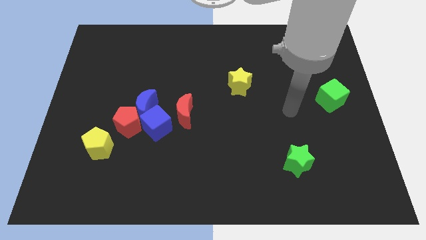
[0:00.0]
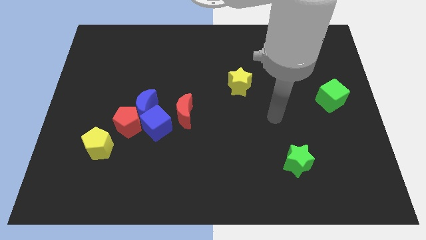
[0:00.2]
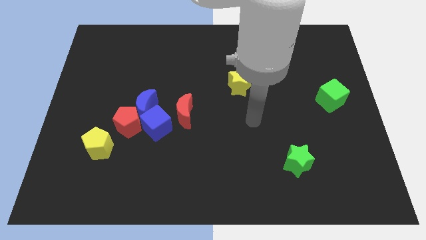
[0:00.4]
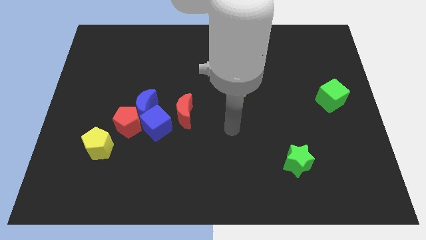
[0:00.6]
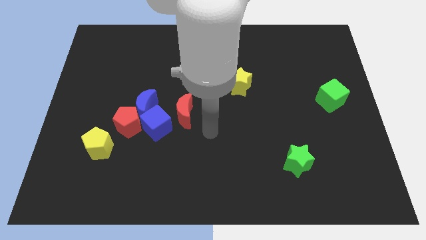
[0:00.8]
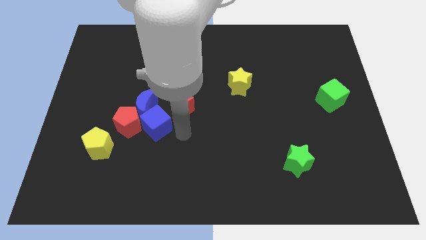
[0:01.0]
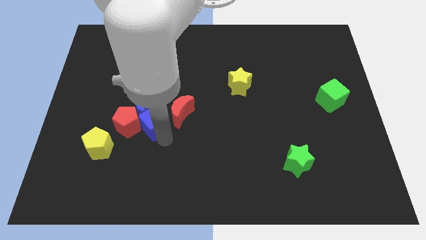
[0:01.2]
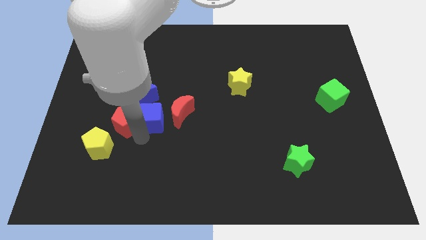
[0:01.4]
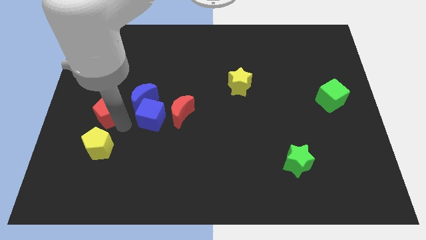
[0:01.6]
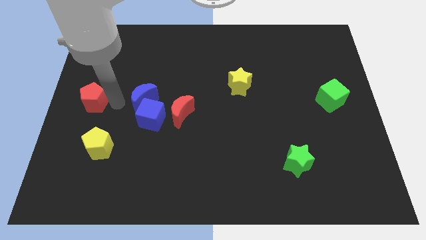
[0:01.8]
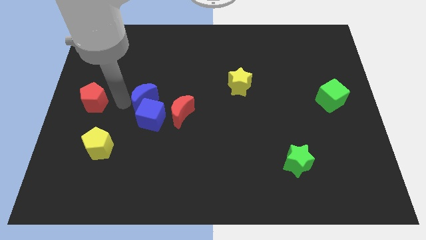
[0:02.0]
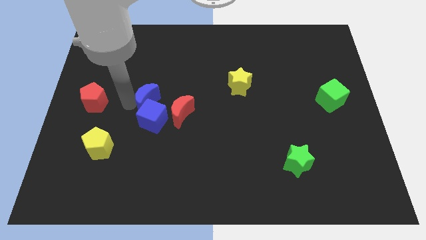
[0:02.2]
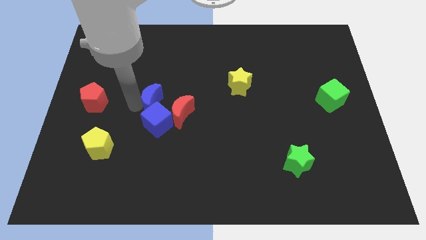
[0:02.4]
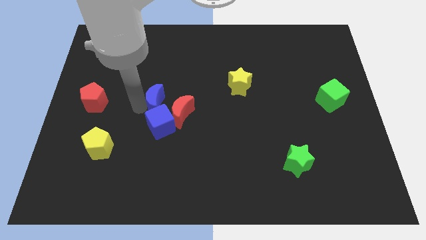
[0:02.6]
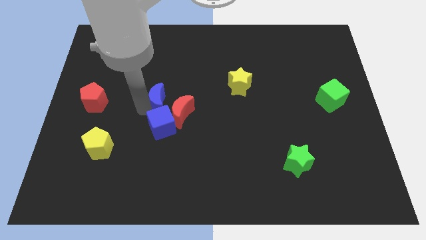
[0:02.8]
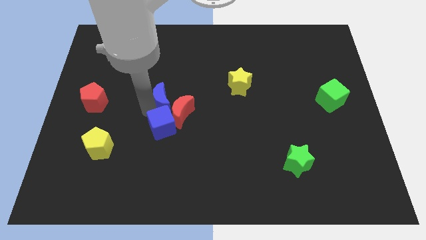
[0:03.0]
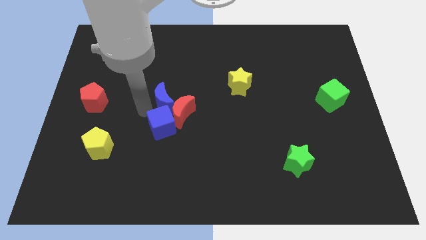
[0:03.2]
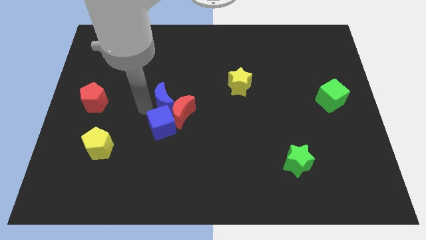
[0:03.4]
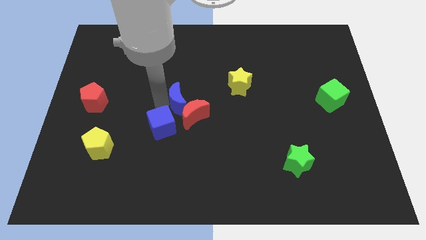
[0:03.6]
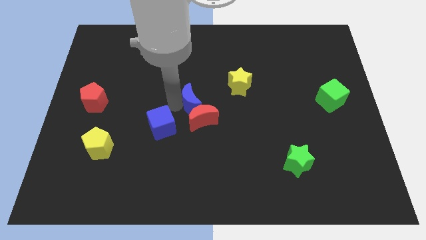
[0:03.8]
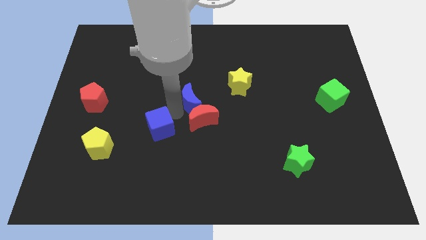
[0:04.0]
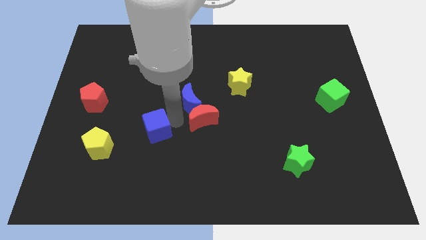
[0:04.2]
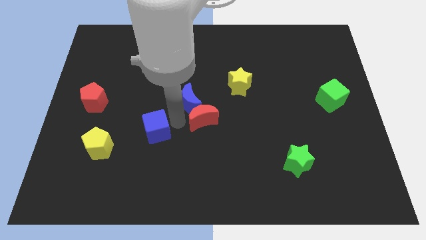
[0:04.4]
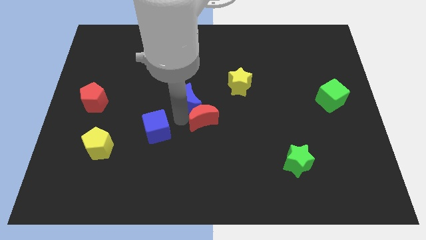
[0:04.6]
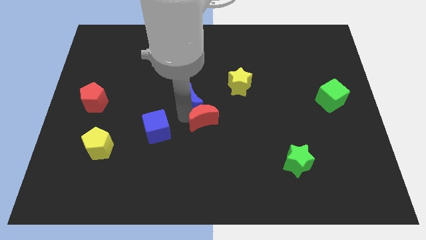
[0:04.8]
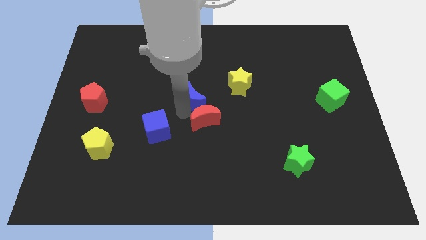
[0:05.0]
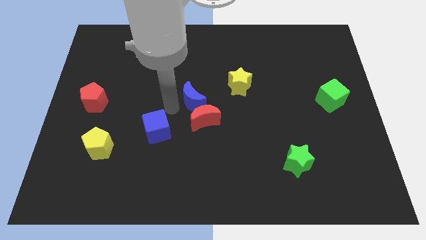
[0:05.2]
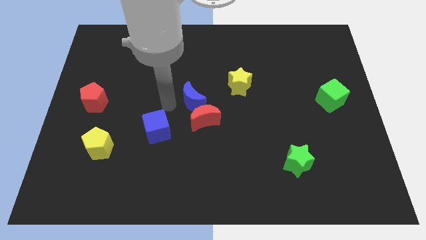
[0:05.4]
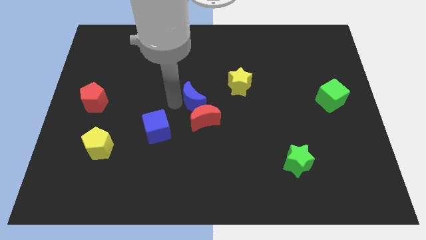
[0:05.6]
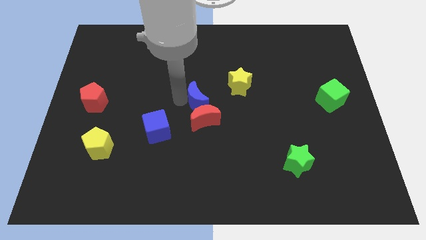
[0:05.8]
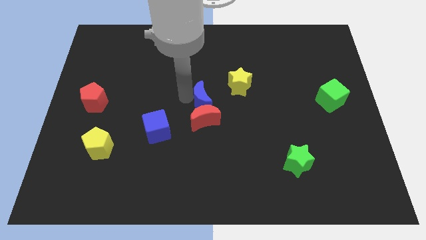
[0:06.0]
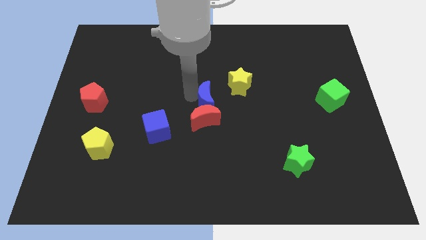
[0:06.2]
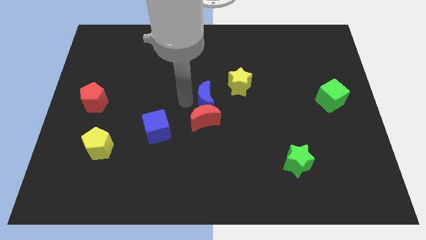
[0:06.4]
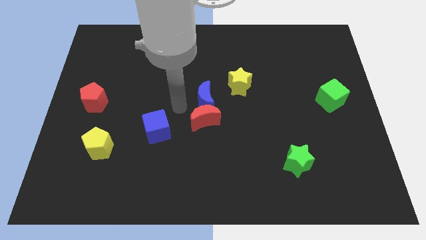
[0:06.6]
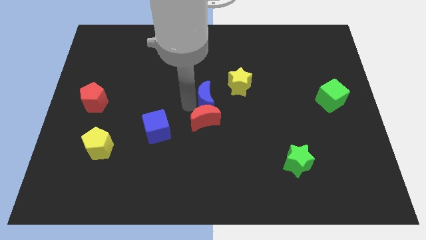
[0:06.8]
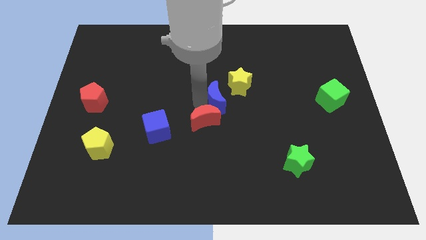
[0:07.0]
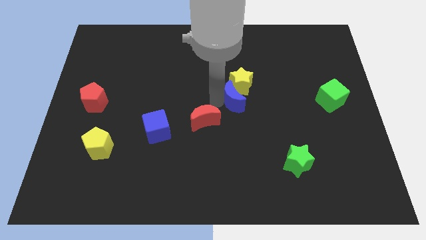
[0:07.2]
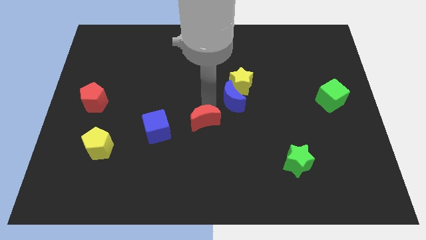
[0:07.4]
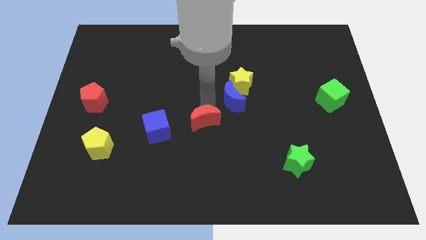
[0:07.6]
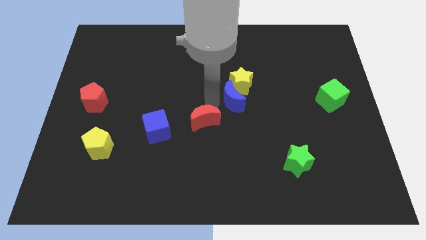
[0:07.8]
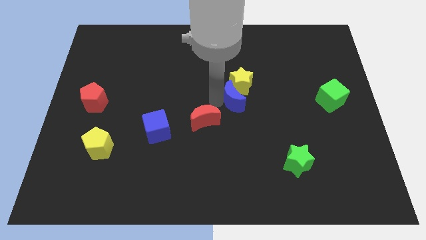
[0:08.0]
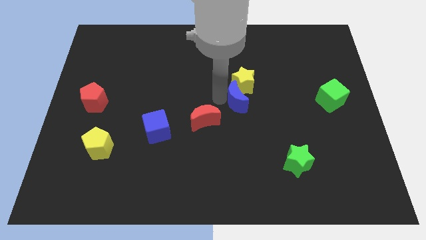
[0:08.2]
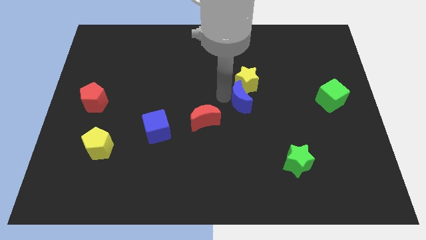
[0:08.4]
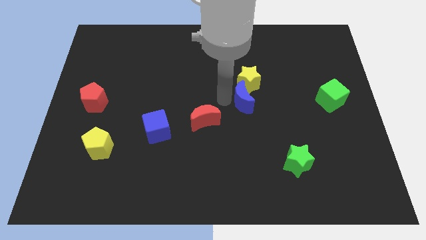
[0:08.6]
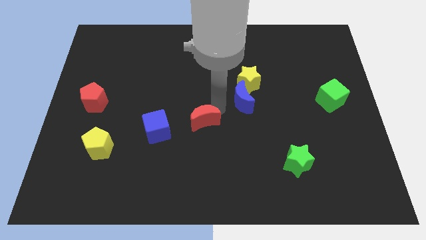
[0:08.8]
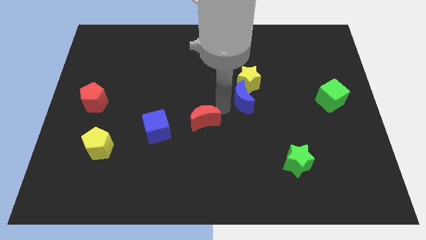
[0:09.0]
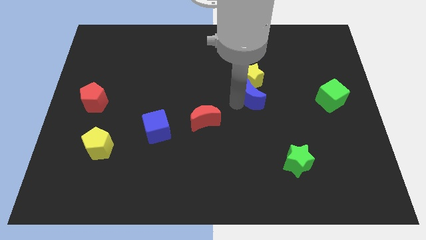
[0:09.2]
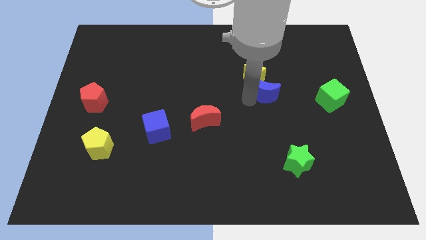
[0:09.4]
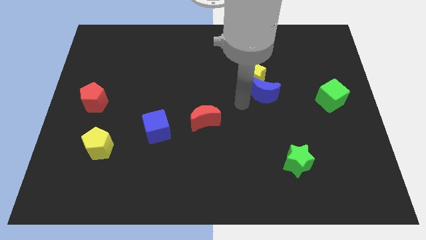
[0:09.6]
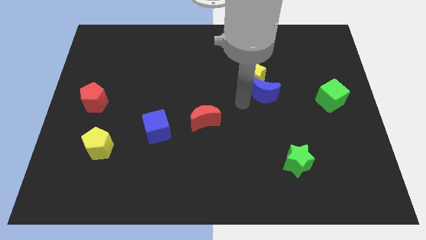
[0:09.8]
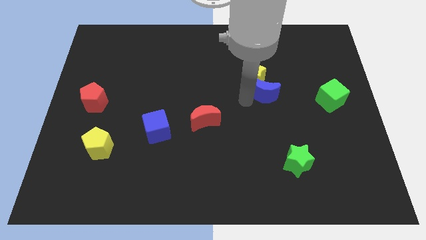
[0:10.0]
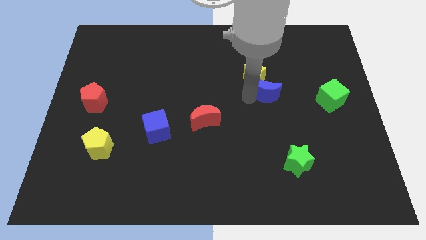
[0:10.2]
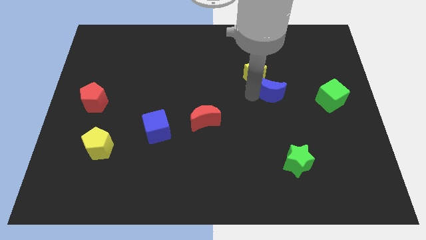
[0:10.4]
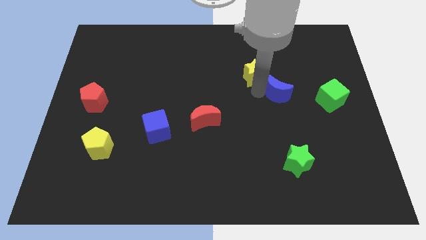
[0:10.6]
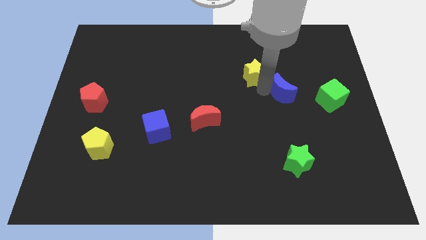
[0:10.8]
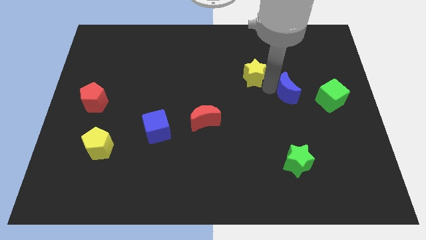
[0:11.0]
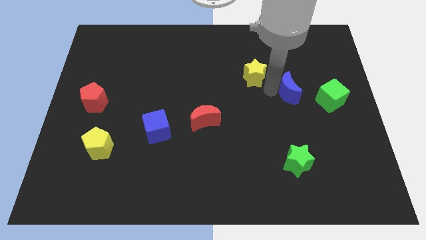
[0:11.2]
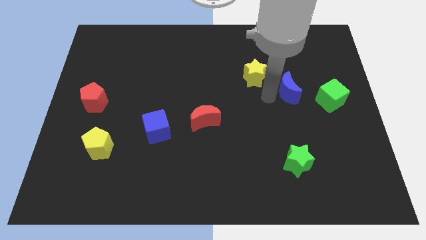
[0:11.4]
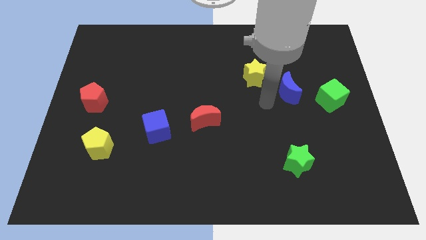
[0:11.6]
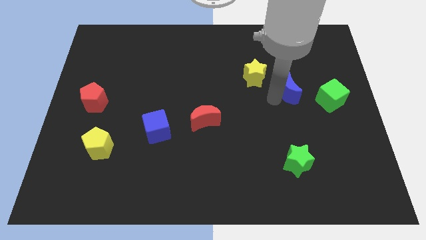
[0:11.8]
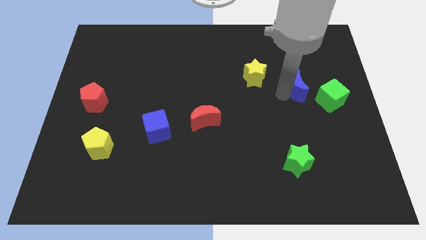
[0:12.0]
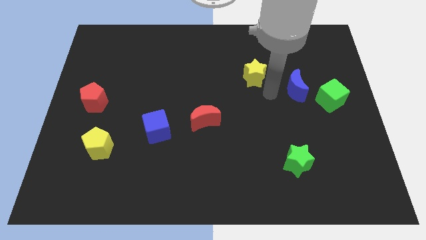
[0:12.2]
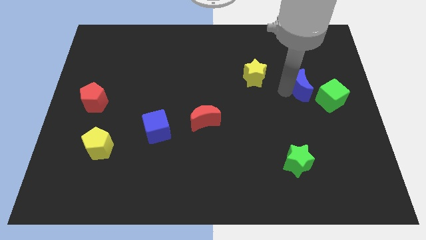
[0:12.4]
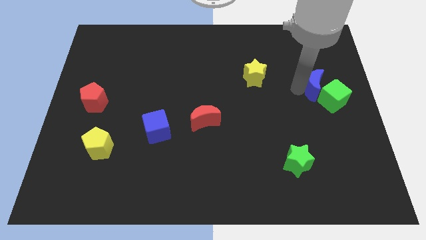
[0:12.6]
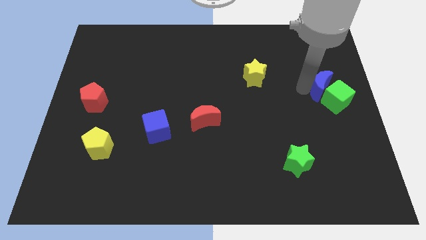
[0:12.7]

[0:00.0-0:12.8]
push the blue moon to the right side of the board

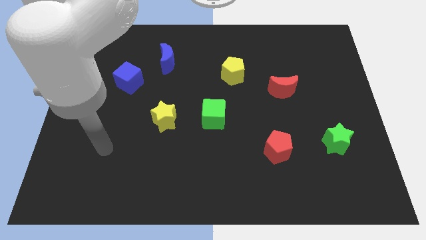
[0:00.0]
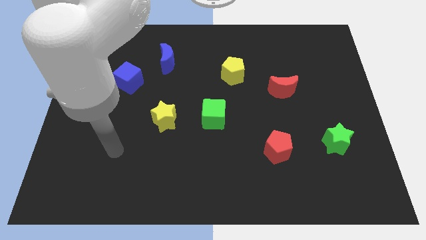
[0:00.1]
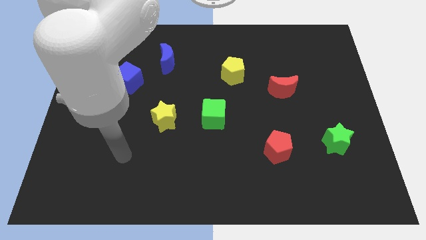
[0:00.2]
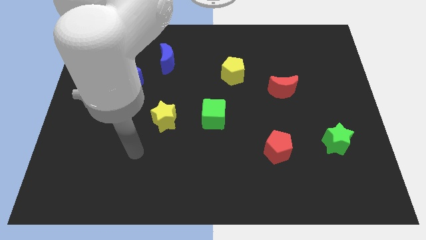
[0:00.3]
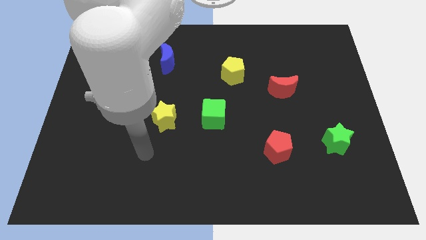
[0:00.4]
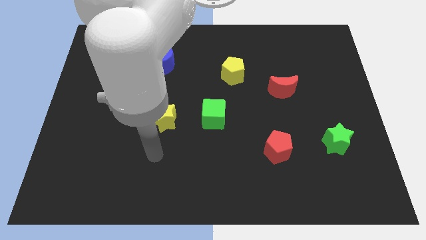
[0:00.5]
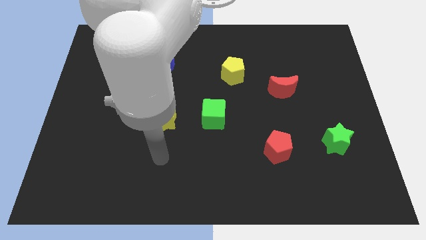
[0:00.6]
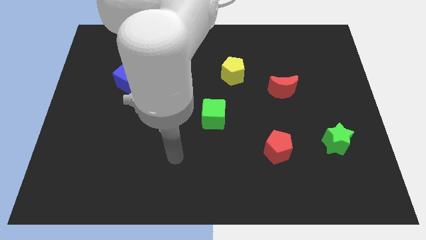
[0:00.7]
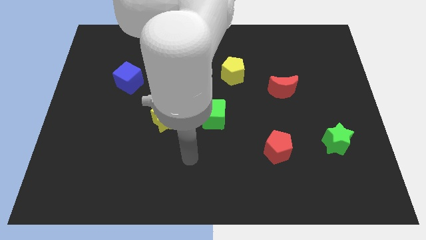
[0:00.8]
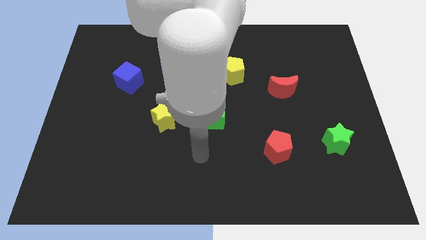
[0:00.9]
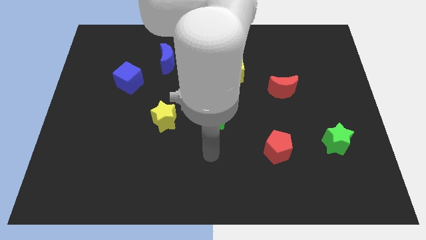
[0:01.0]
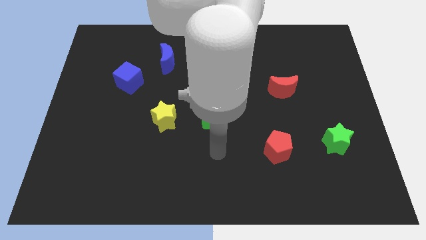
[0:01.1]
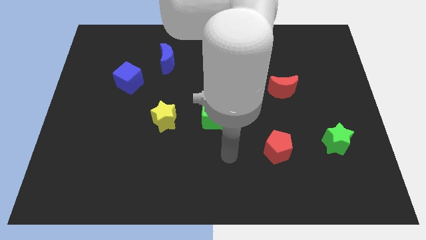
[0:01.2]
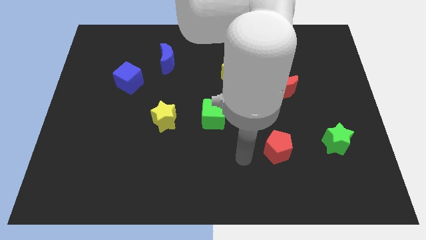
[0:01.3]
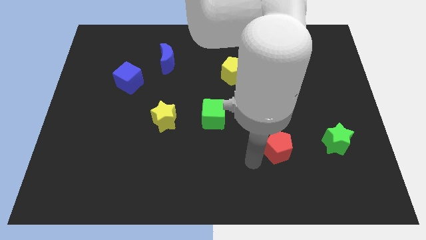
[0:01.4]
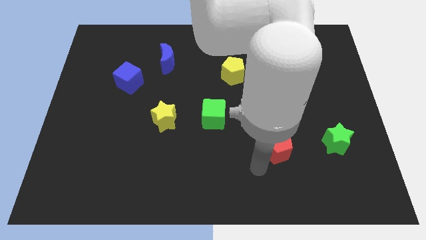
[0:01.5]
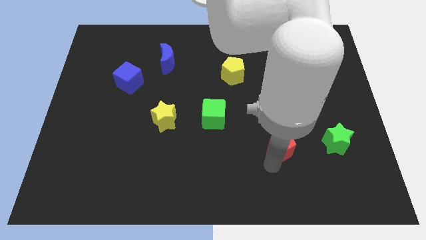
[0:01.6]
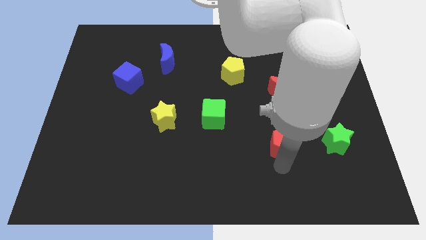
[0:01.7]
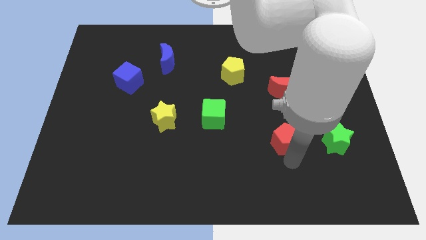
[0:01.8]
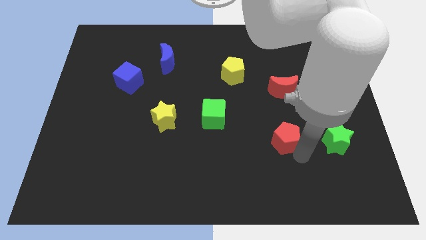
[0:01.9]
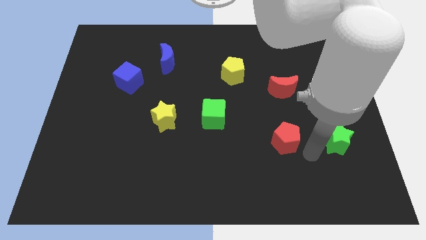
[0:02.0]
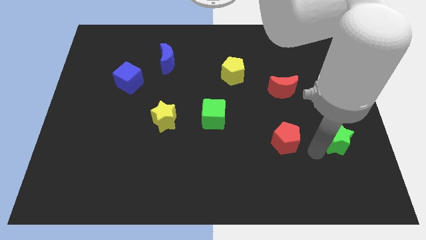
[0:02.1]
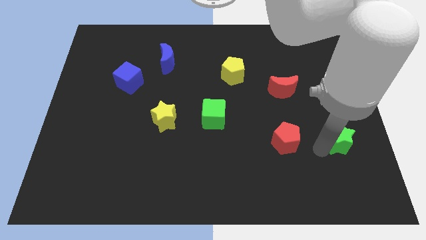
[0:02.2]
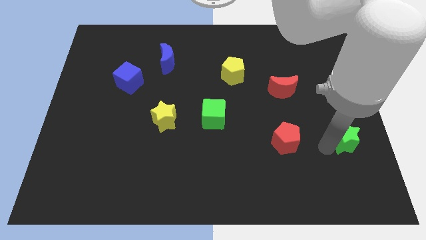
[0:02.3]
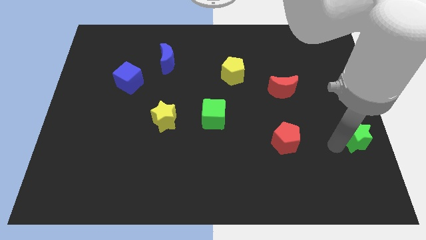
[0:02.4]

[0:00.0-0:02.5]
put the green star to the right side
